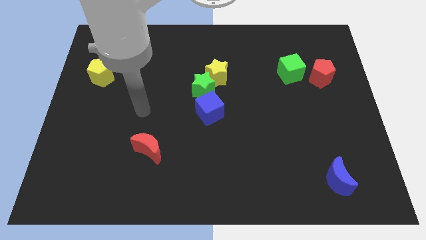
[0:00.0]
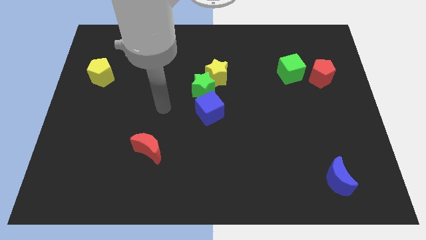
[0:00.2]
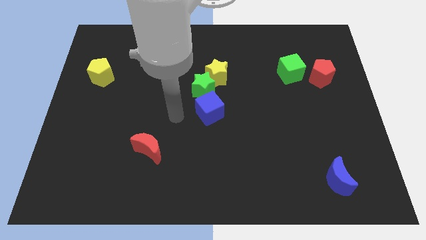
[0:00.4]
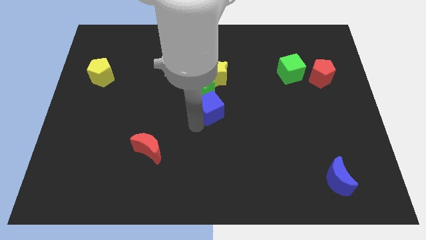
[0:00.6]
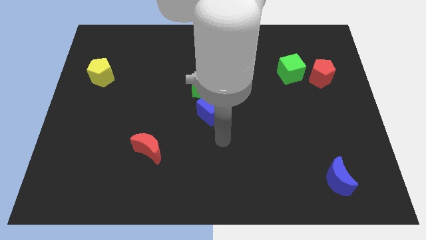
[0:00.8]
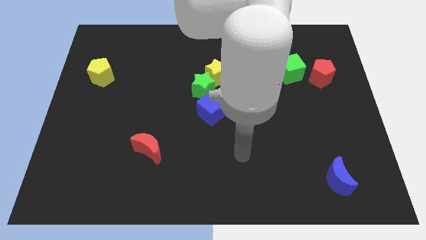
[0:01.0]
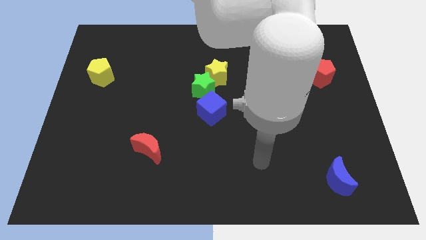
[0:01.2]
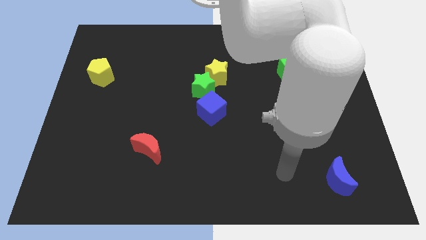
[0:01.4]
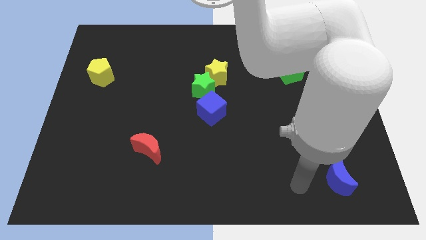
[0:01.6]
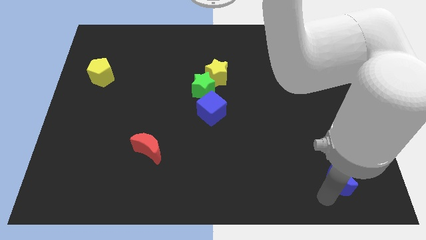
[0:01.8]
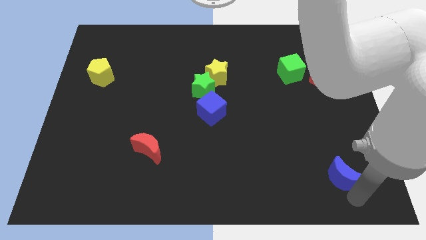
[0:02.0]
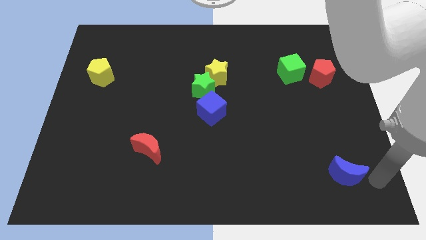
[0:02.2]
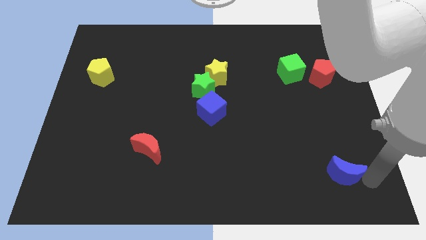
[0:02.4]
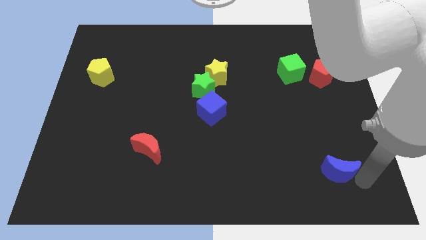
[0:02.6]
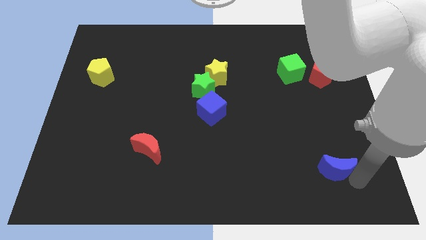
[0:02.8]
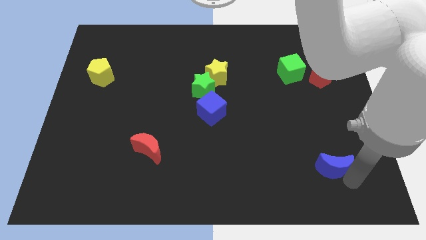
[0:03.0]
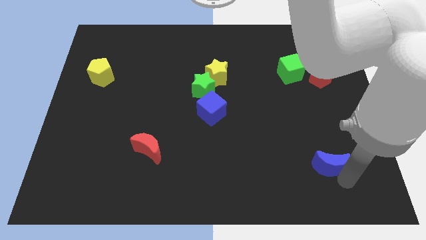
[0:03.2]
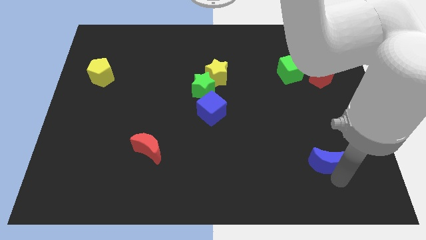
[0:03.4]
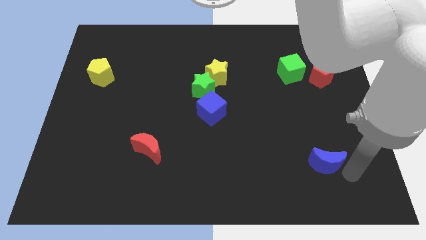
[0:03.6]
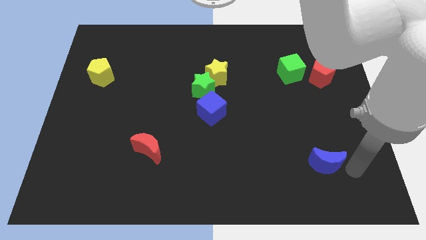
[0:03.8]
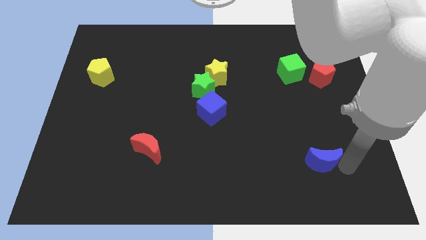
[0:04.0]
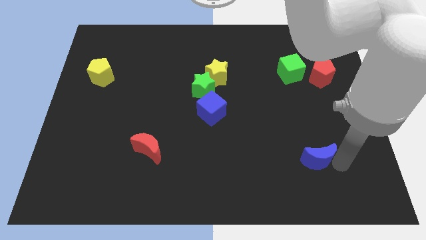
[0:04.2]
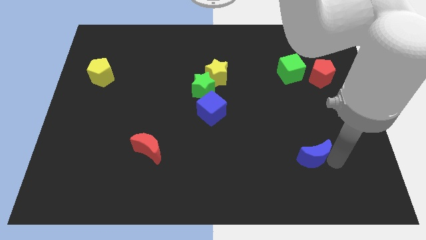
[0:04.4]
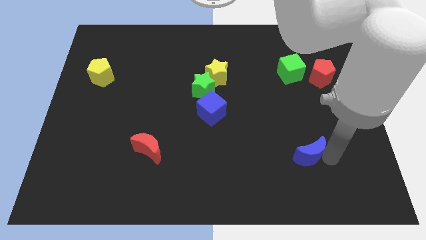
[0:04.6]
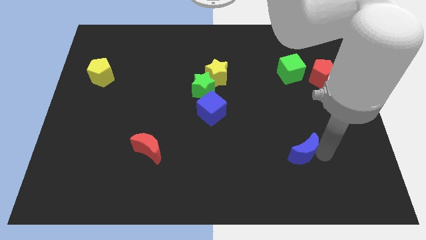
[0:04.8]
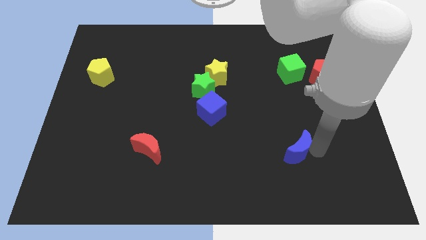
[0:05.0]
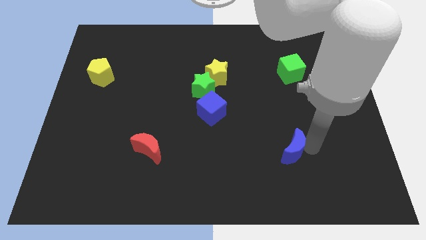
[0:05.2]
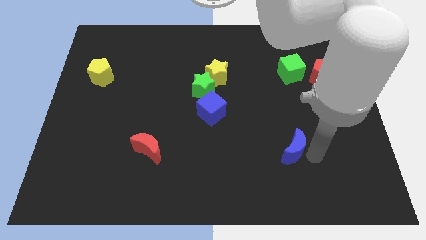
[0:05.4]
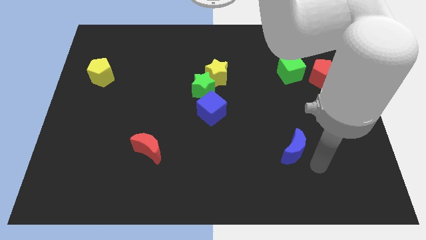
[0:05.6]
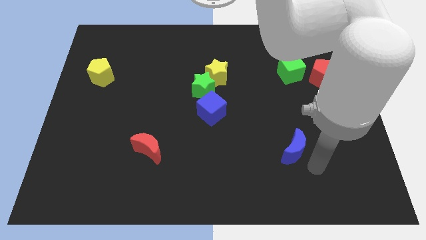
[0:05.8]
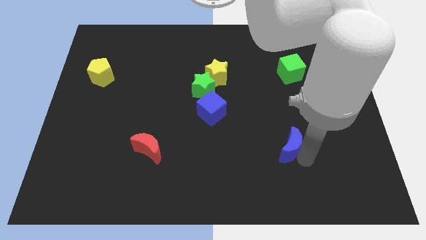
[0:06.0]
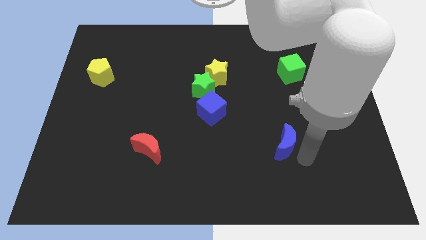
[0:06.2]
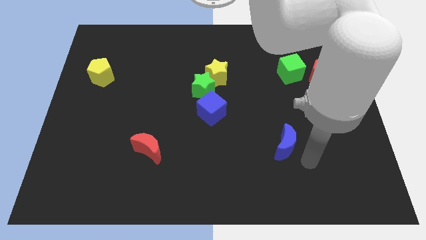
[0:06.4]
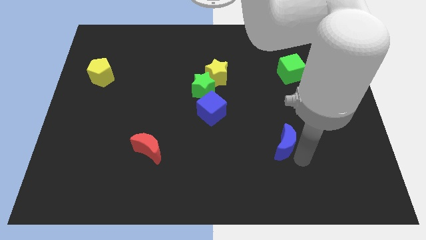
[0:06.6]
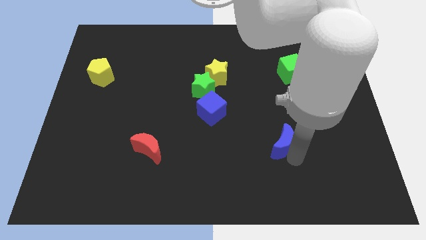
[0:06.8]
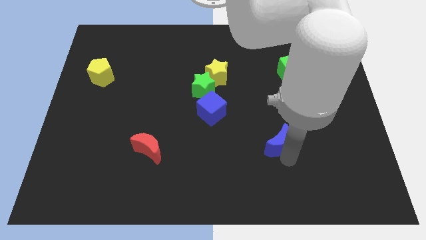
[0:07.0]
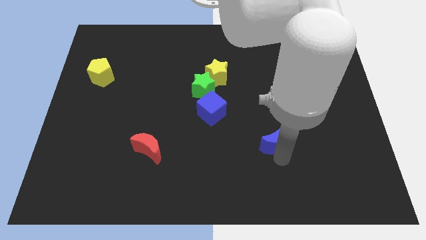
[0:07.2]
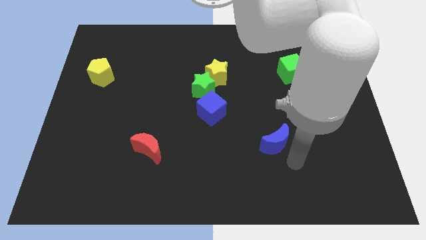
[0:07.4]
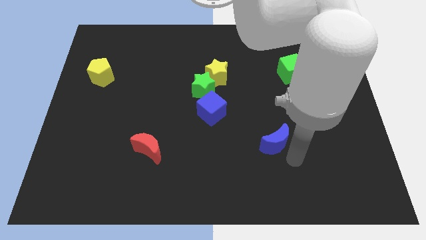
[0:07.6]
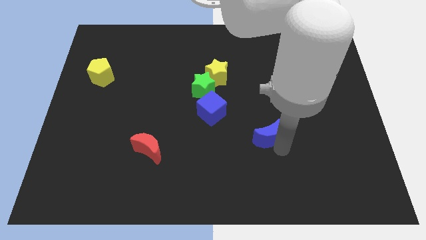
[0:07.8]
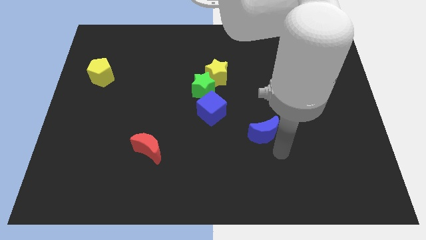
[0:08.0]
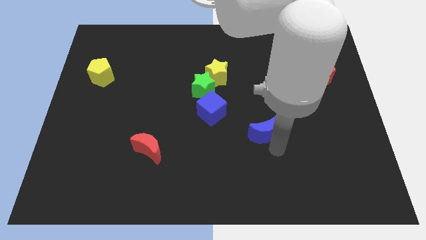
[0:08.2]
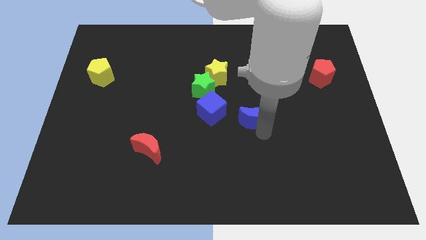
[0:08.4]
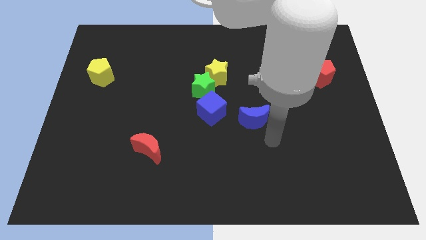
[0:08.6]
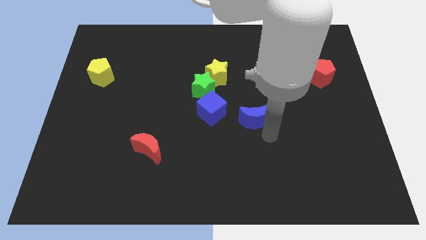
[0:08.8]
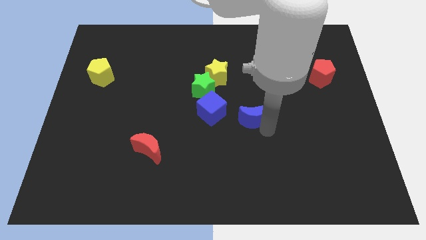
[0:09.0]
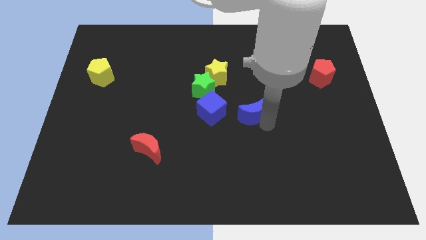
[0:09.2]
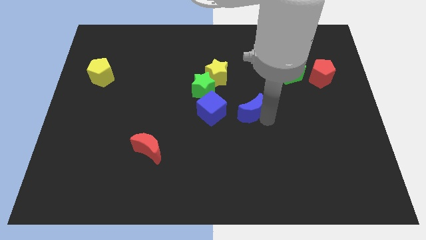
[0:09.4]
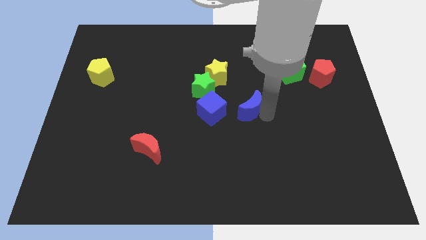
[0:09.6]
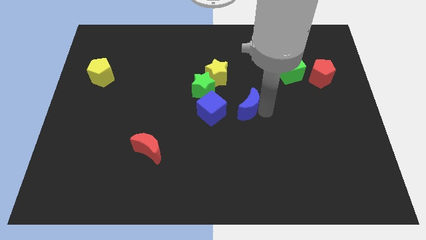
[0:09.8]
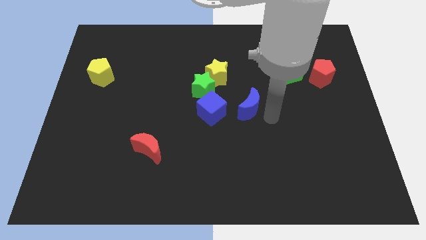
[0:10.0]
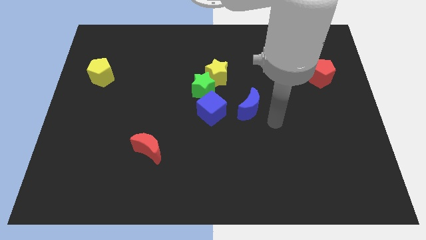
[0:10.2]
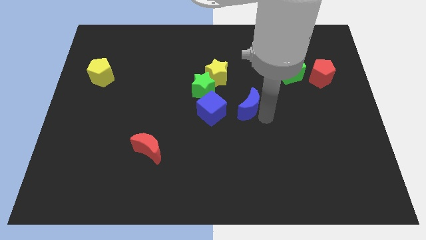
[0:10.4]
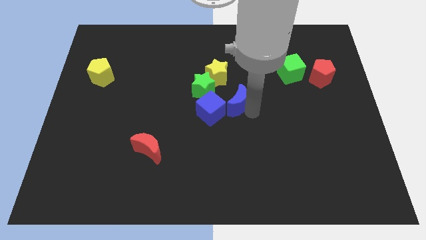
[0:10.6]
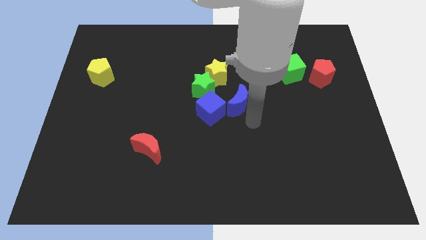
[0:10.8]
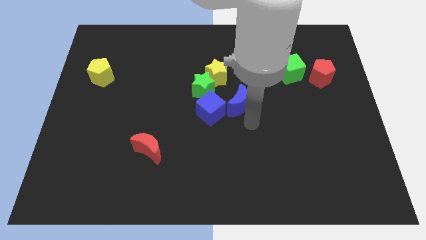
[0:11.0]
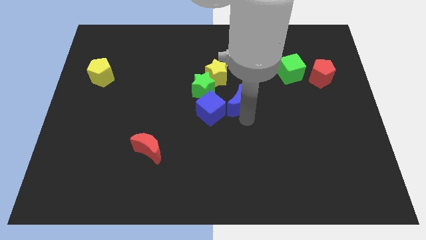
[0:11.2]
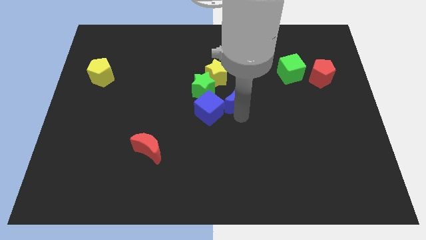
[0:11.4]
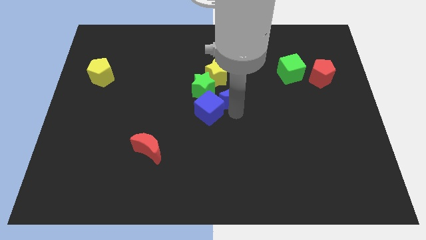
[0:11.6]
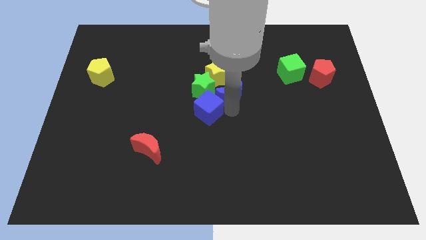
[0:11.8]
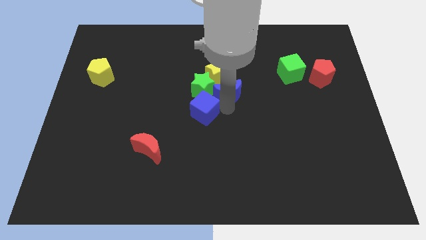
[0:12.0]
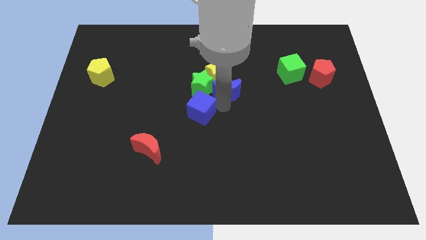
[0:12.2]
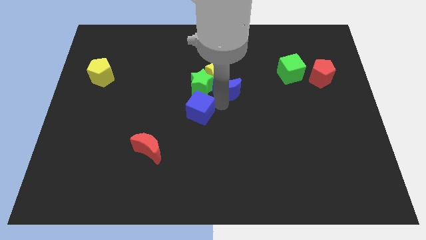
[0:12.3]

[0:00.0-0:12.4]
slide the blue moon close to the yellow star

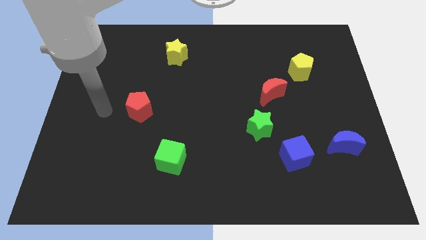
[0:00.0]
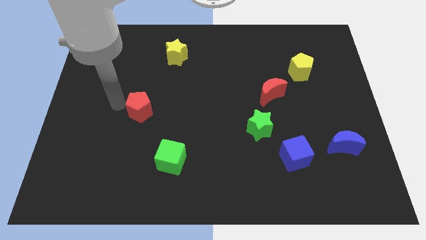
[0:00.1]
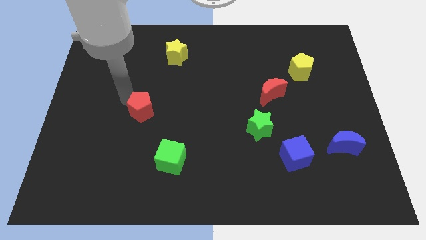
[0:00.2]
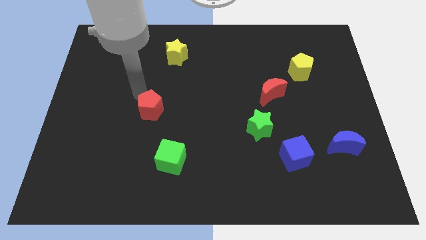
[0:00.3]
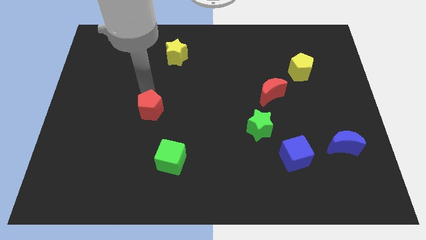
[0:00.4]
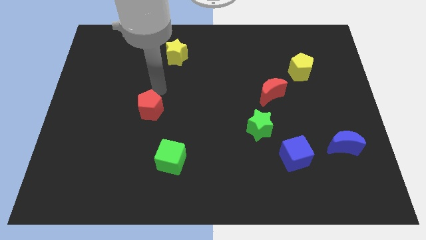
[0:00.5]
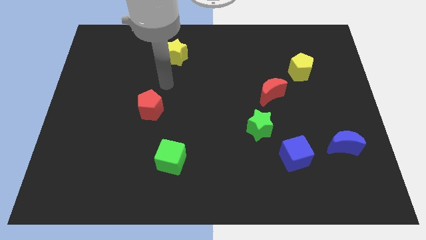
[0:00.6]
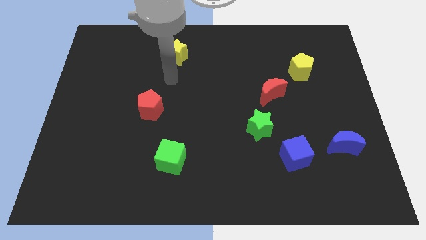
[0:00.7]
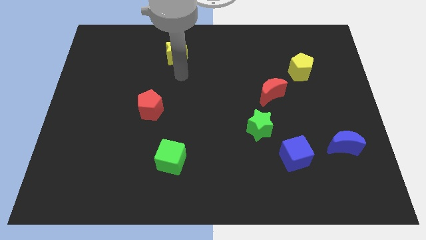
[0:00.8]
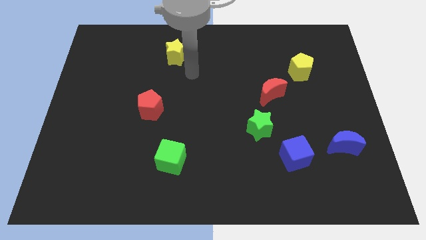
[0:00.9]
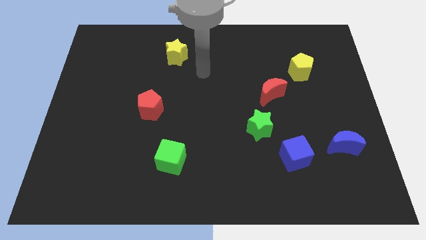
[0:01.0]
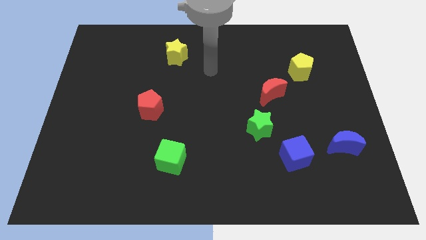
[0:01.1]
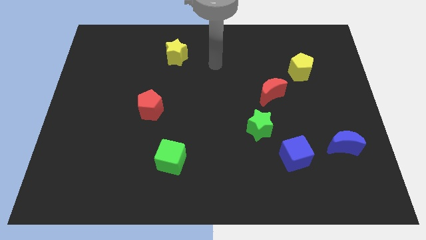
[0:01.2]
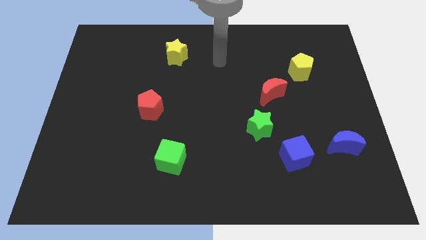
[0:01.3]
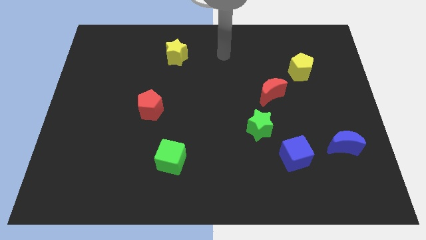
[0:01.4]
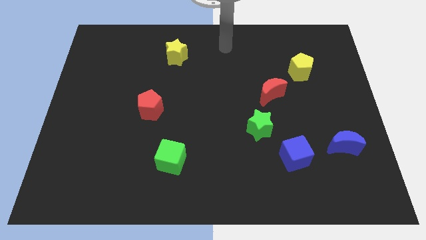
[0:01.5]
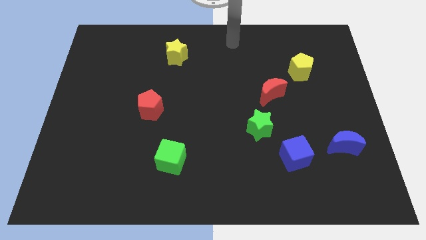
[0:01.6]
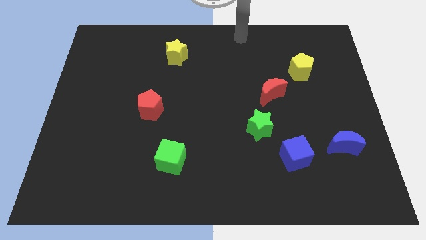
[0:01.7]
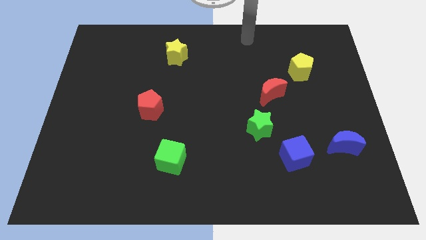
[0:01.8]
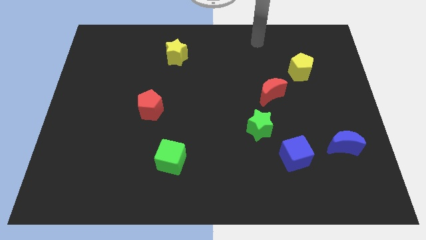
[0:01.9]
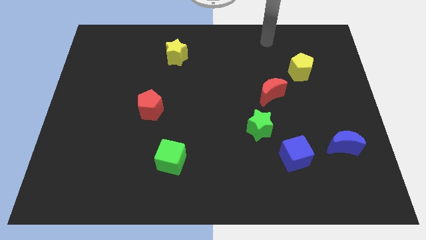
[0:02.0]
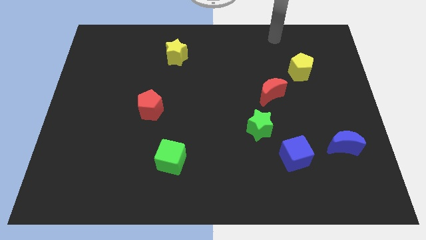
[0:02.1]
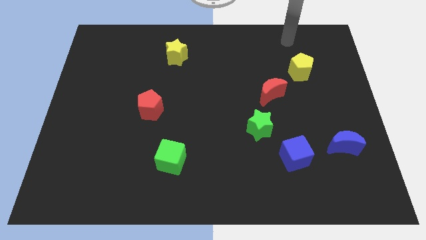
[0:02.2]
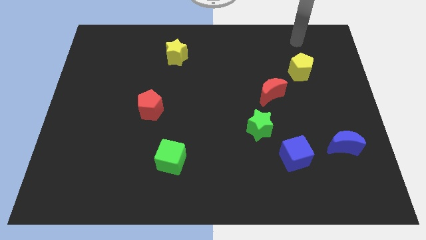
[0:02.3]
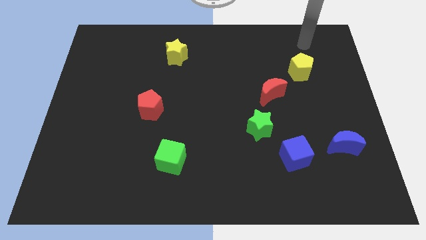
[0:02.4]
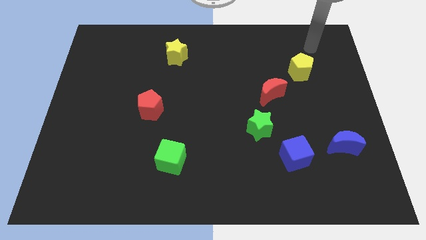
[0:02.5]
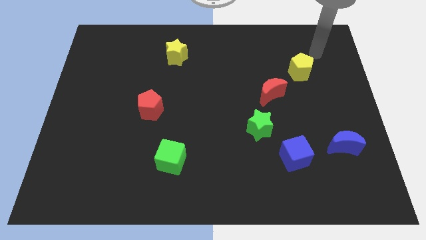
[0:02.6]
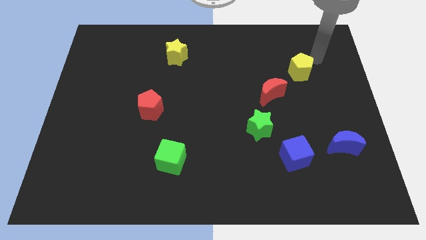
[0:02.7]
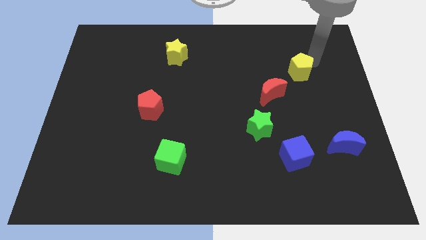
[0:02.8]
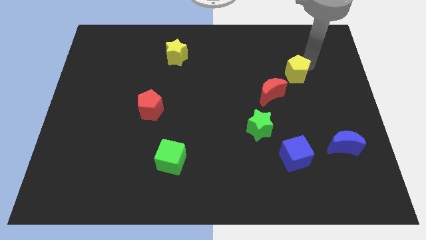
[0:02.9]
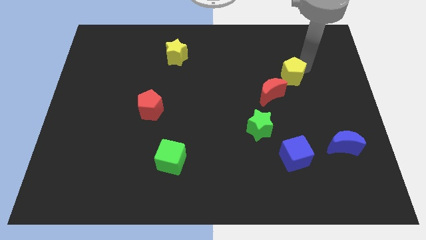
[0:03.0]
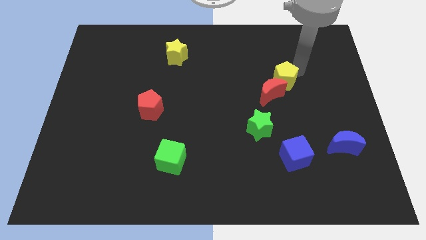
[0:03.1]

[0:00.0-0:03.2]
move the yellow pentagon next to the red moon
